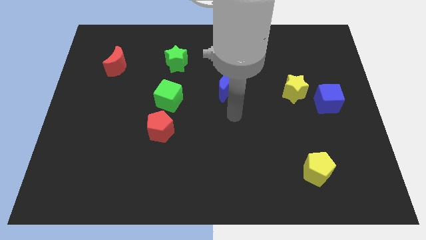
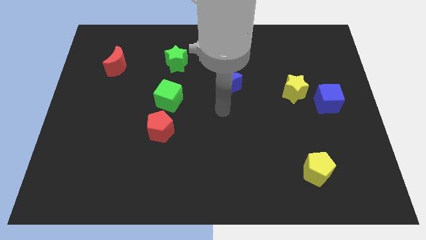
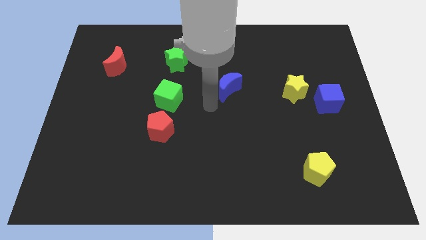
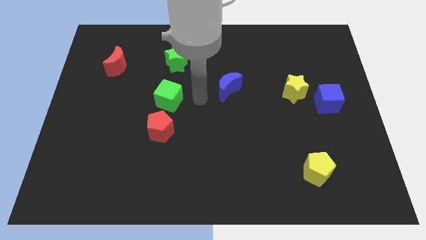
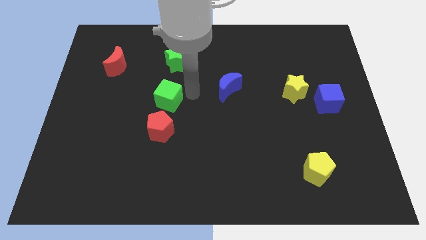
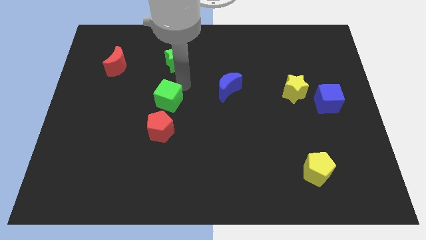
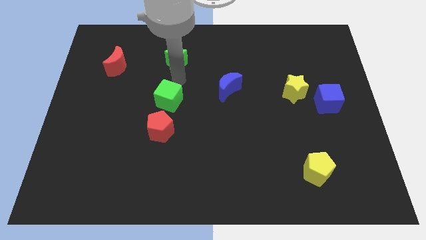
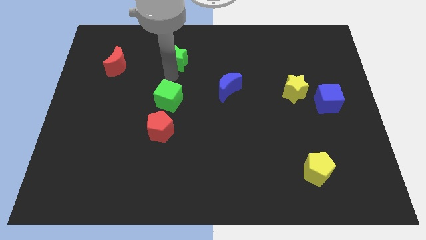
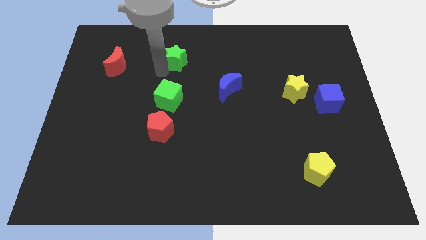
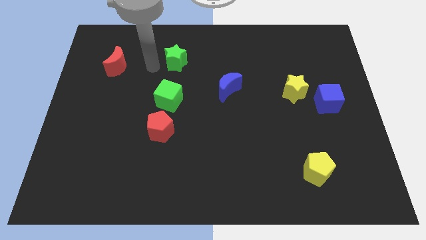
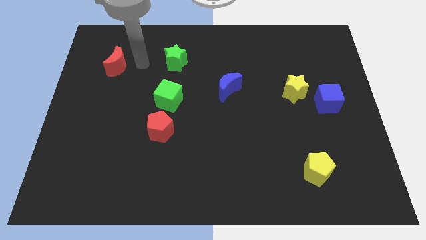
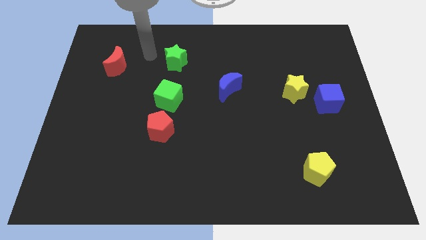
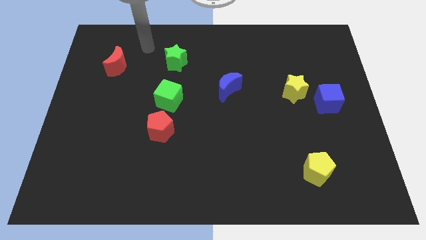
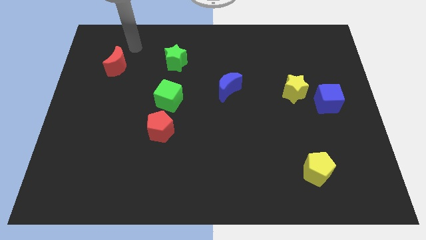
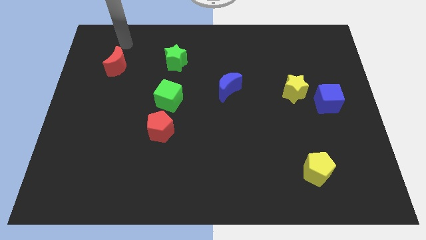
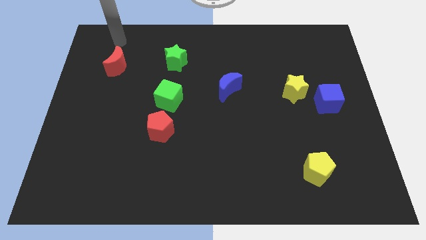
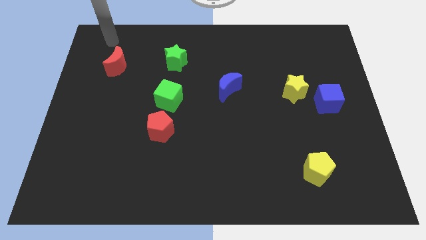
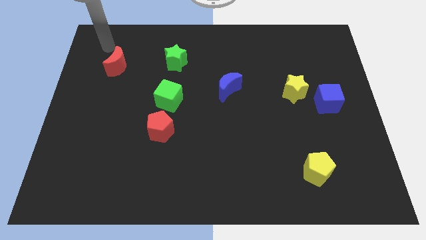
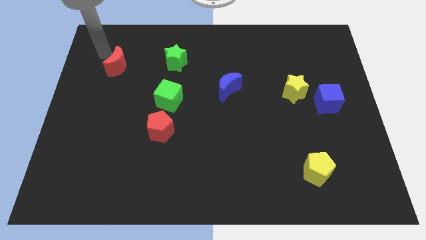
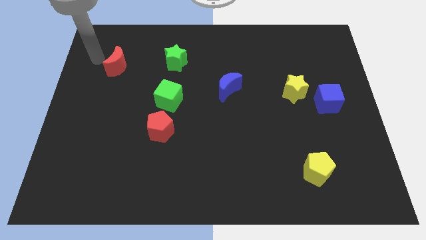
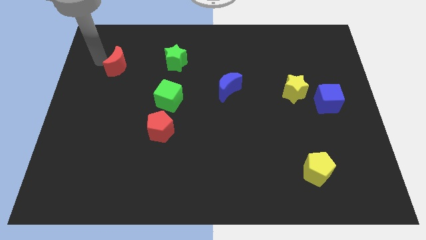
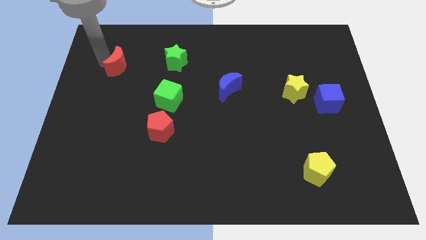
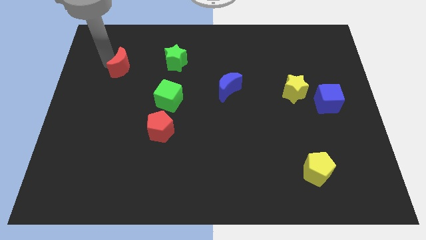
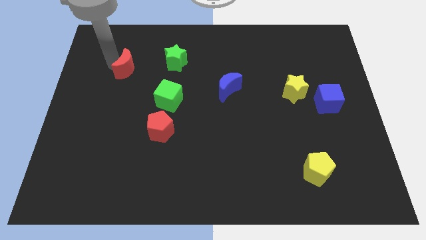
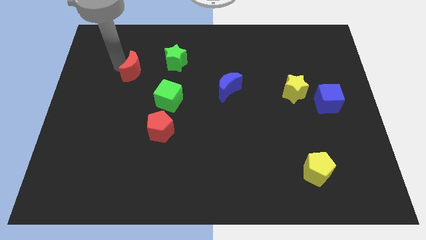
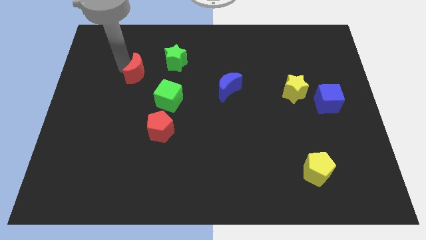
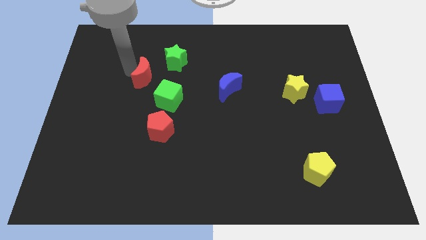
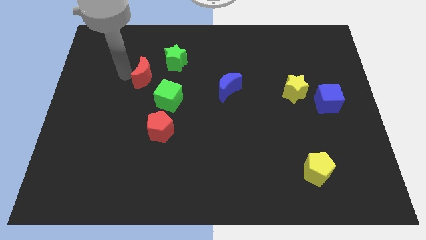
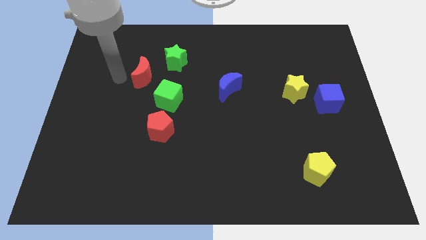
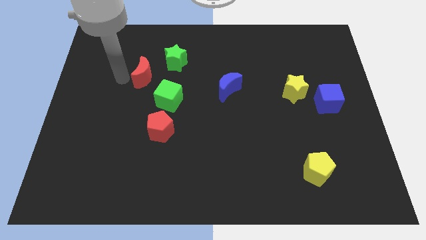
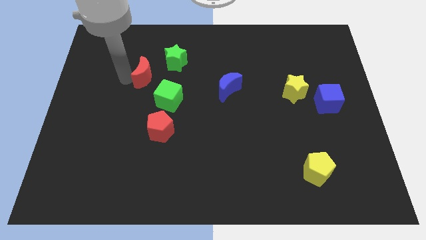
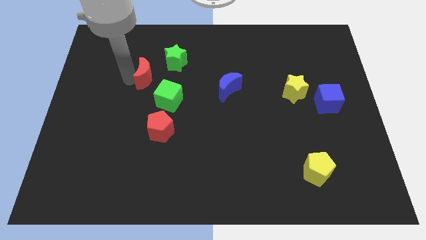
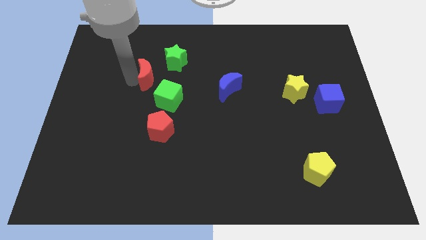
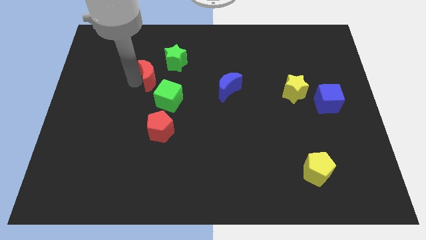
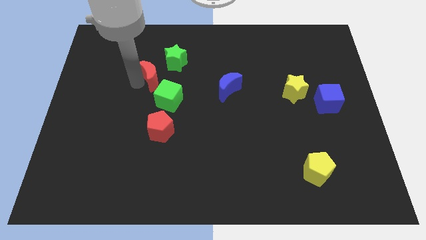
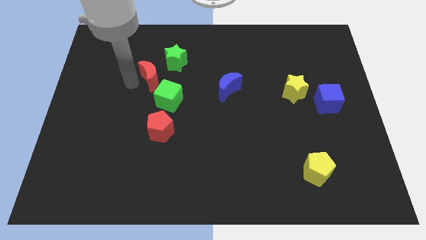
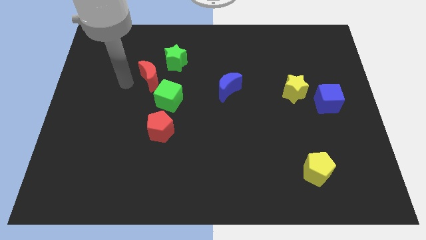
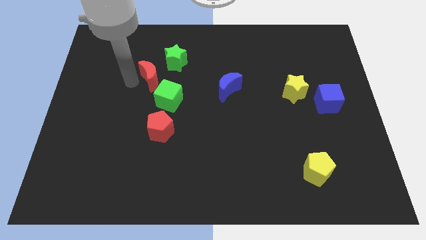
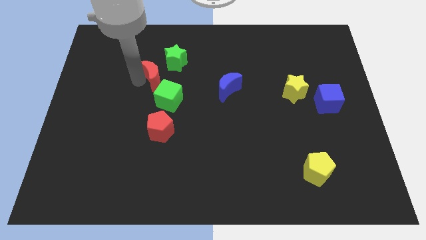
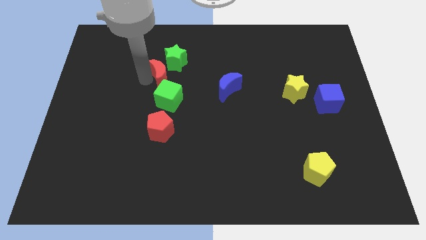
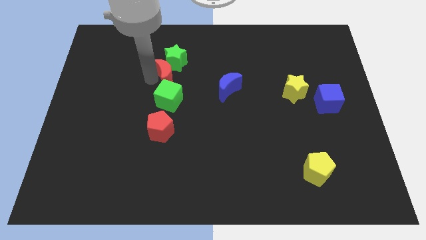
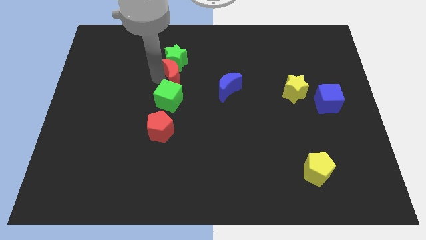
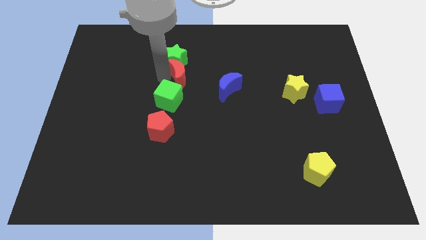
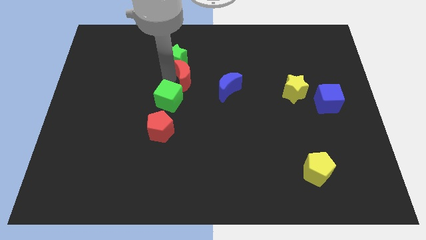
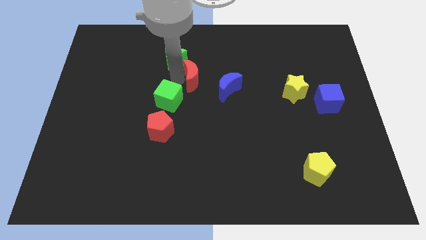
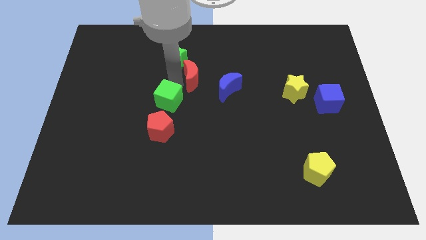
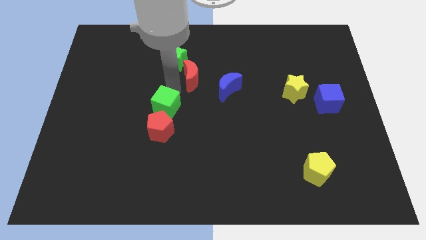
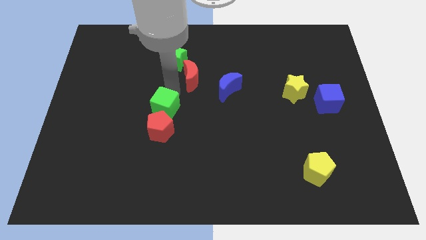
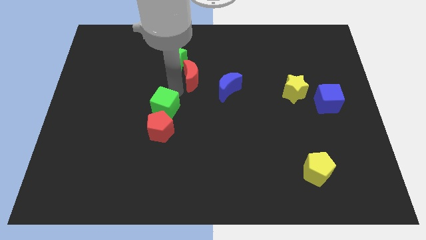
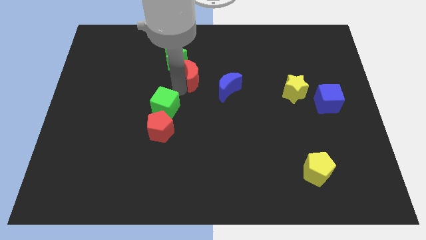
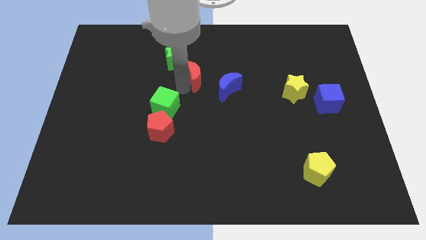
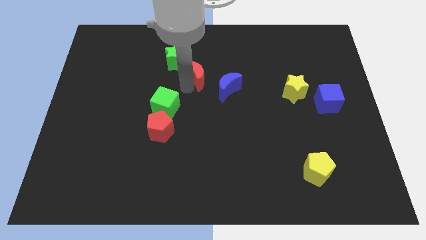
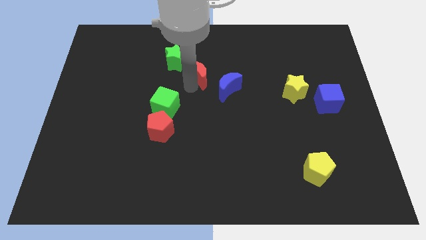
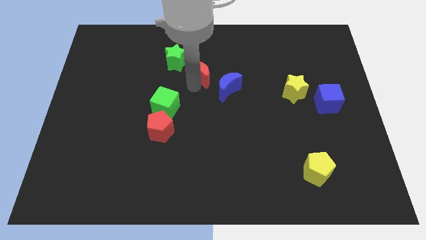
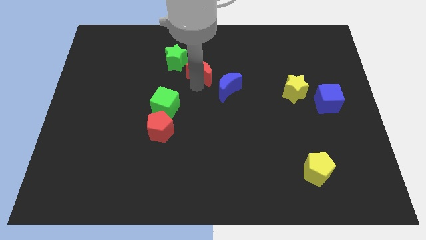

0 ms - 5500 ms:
move the red moon to the right of the green star

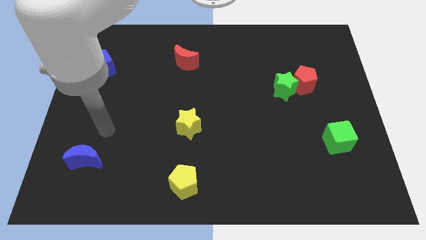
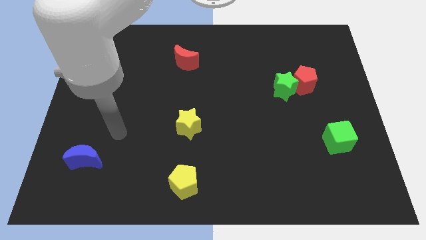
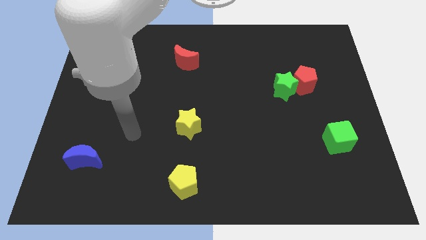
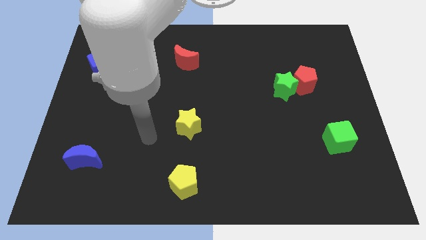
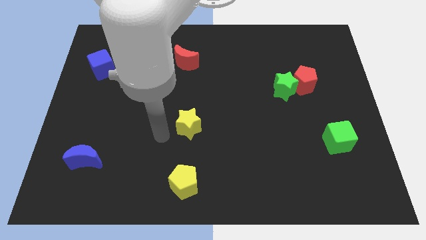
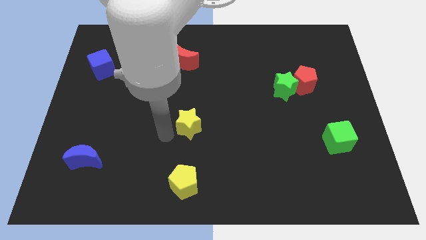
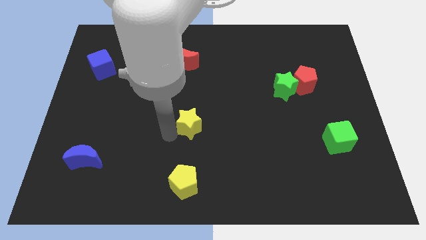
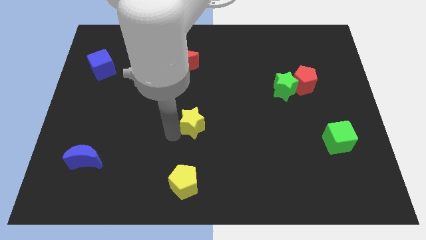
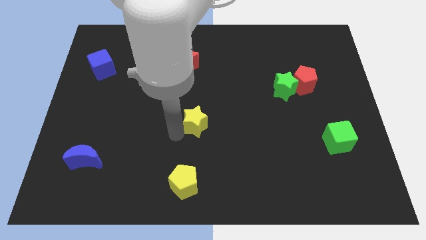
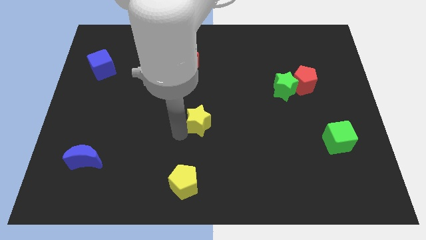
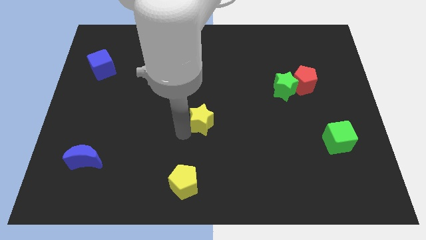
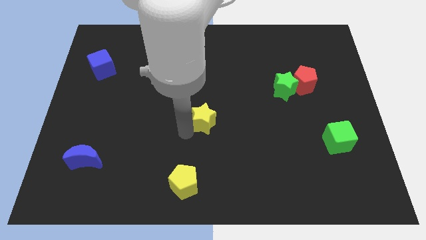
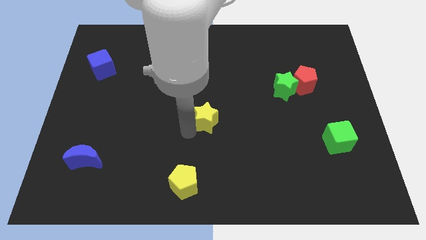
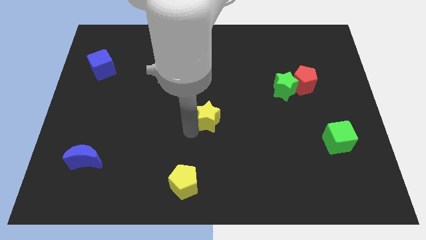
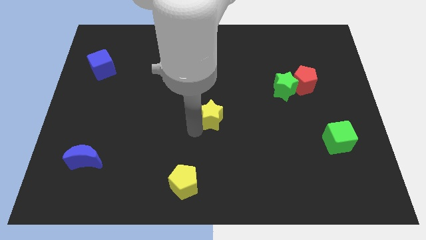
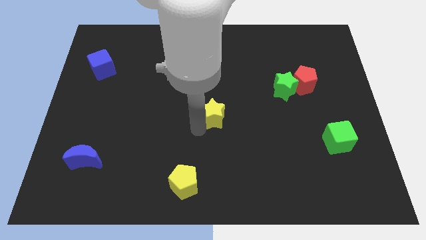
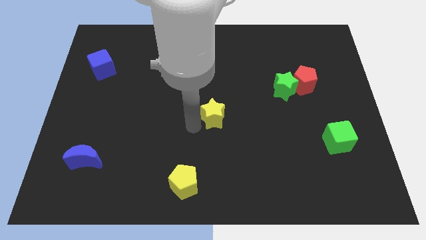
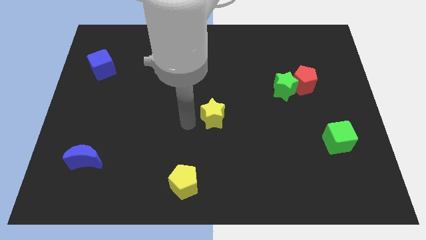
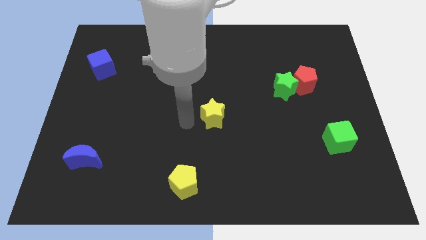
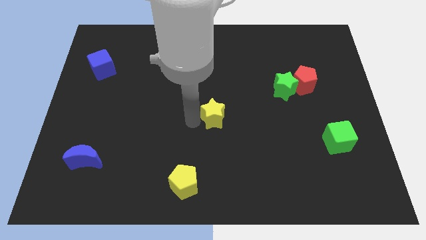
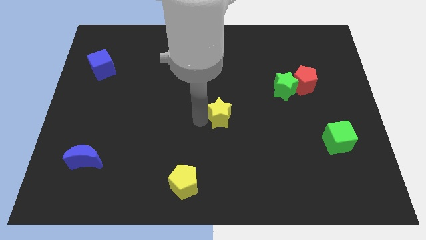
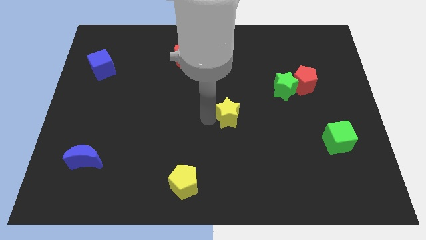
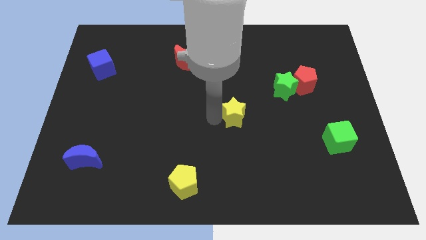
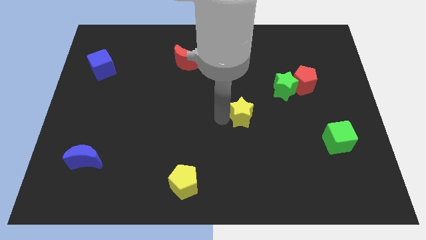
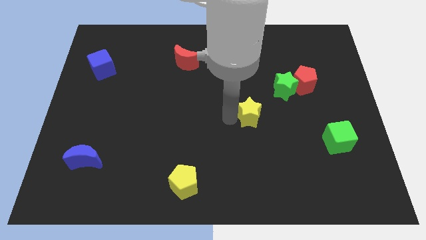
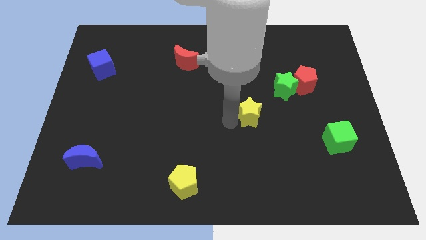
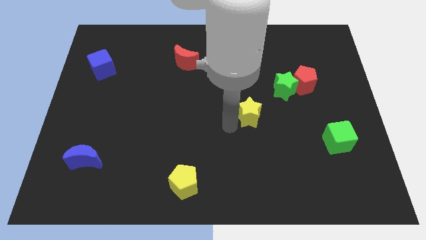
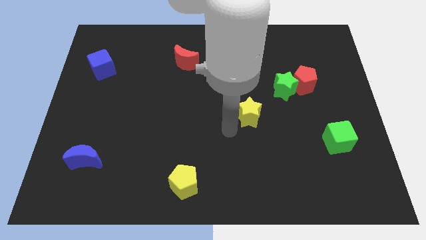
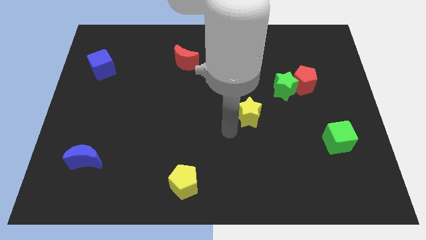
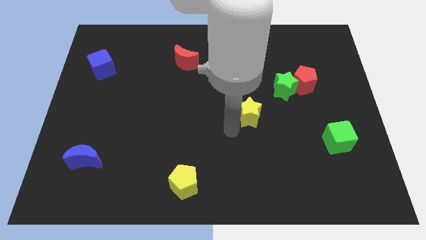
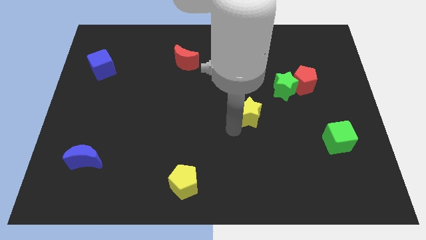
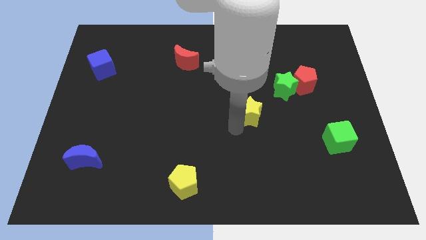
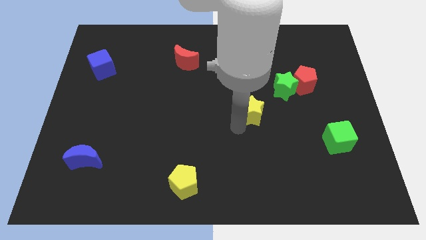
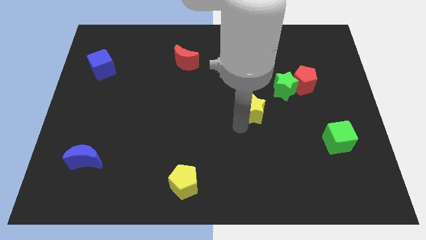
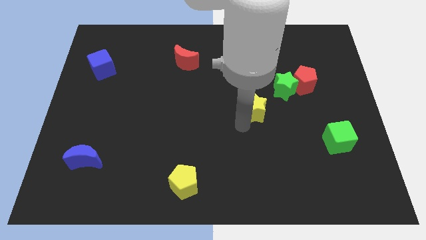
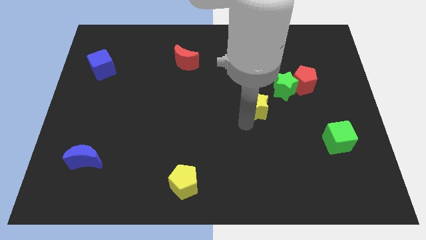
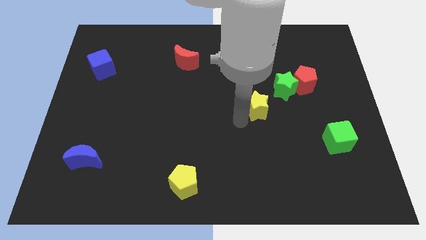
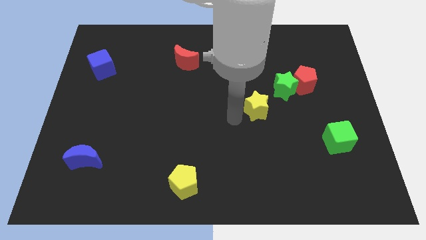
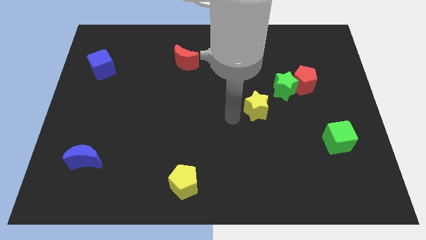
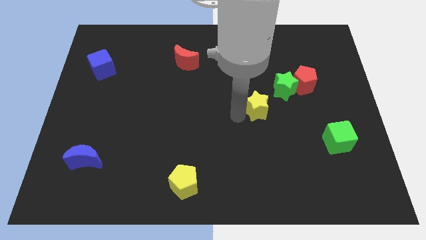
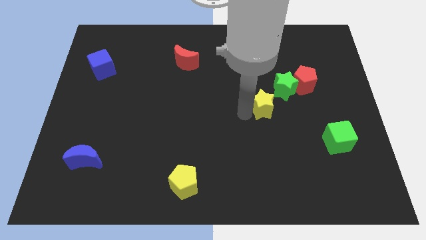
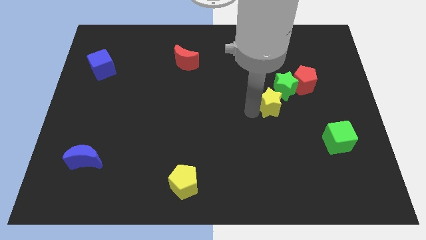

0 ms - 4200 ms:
slide the yellow star to the bottom left of the red pentagon
